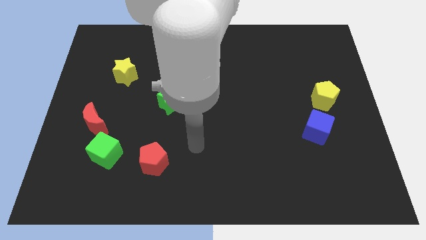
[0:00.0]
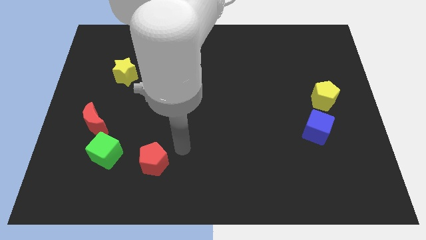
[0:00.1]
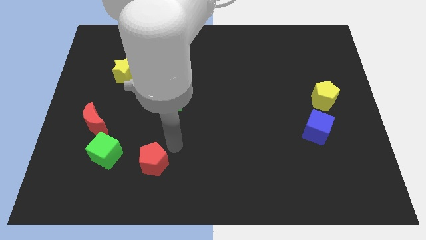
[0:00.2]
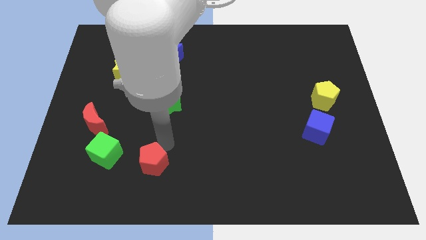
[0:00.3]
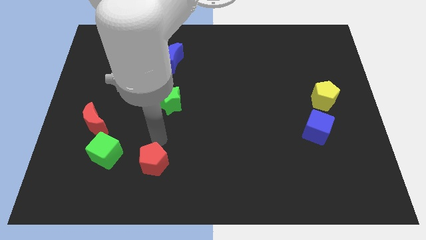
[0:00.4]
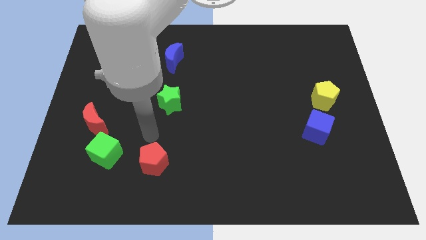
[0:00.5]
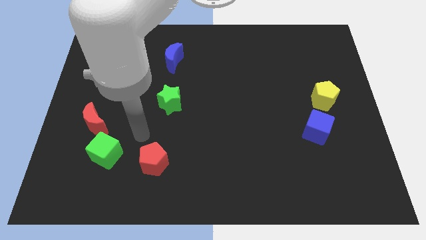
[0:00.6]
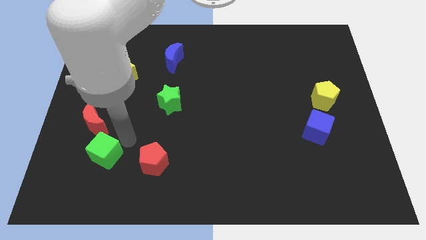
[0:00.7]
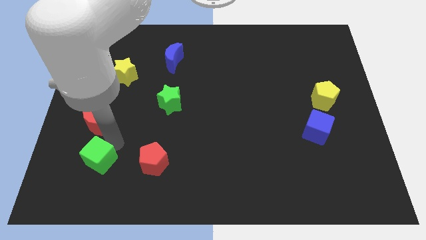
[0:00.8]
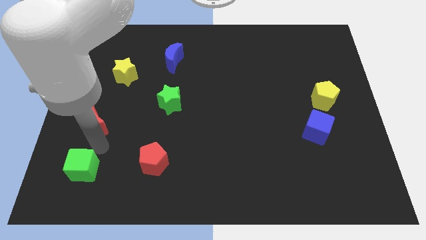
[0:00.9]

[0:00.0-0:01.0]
move the red moon away from the green cube

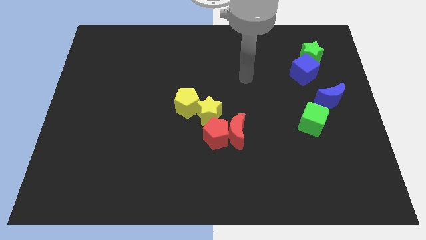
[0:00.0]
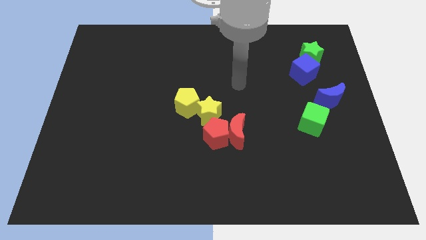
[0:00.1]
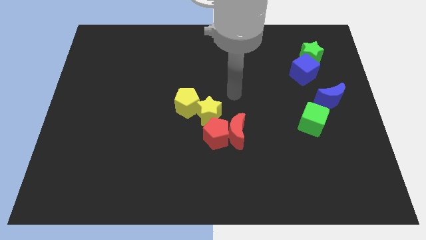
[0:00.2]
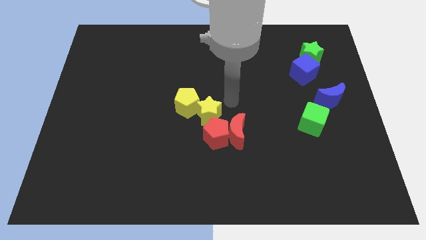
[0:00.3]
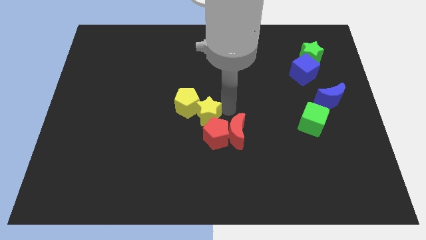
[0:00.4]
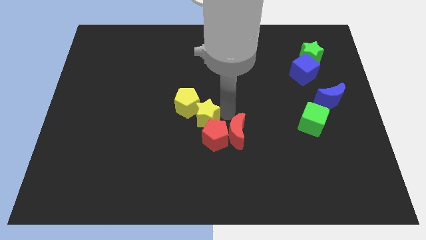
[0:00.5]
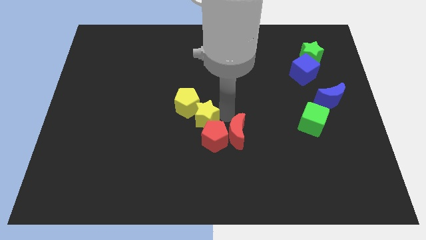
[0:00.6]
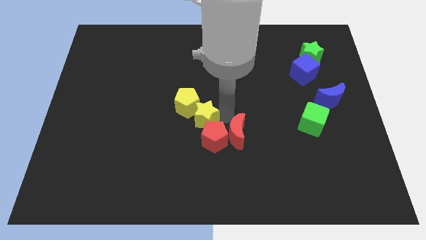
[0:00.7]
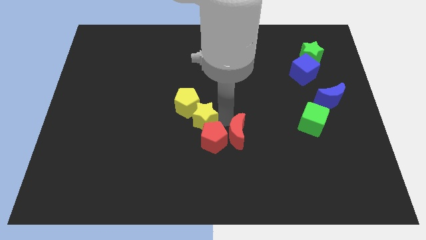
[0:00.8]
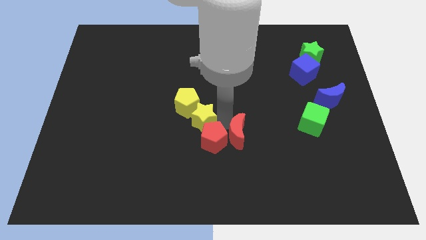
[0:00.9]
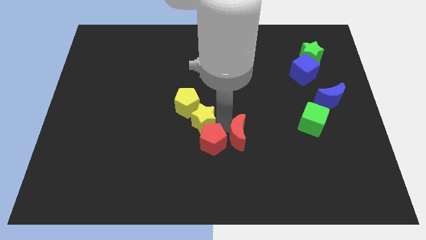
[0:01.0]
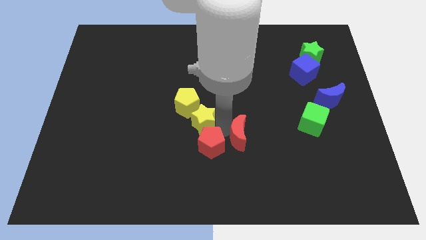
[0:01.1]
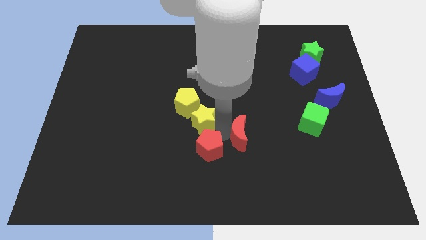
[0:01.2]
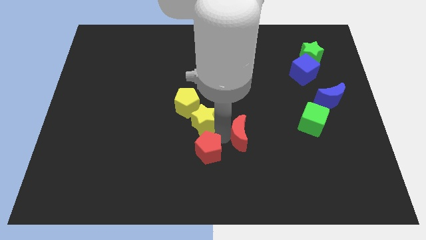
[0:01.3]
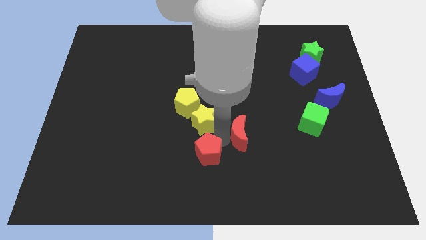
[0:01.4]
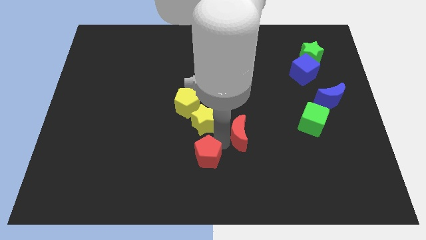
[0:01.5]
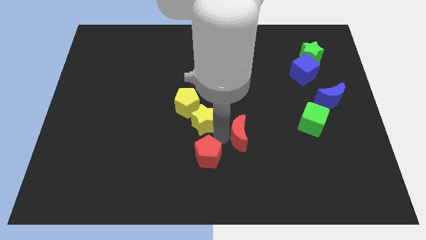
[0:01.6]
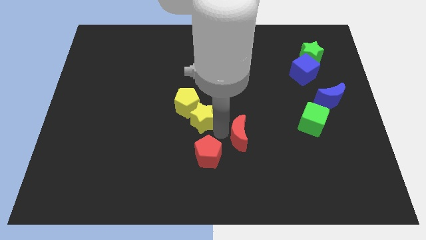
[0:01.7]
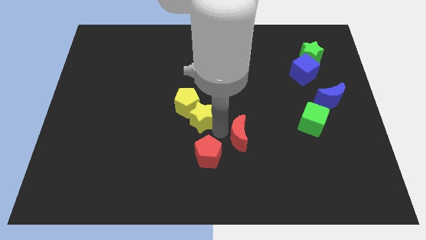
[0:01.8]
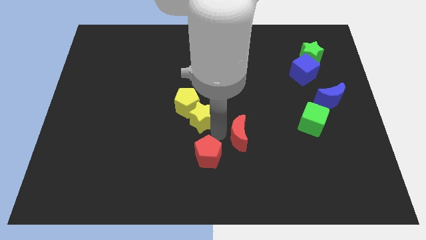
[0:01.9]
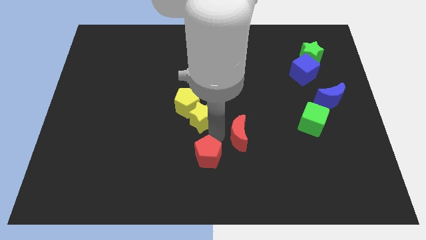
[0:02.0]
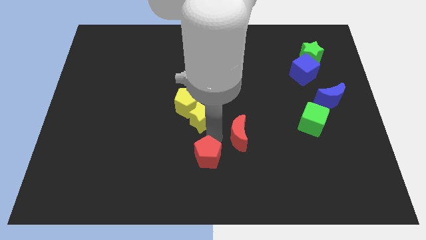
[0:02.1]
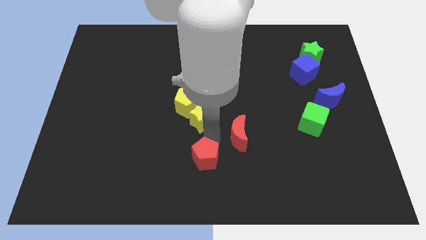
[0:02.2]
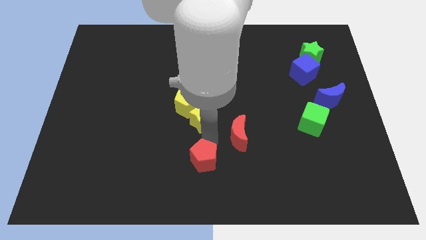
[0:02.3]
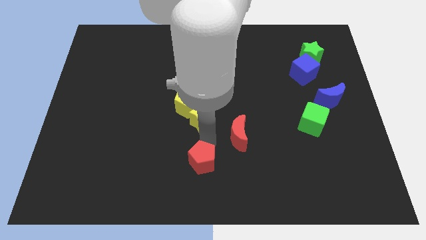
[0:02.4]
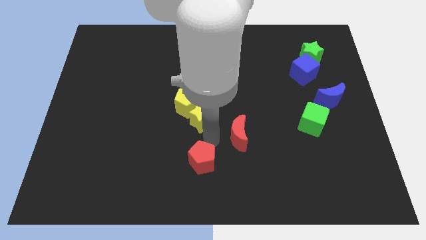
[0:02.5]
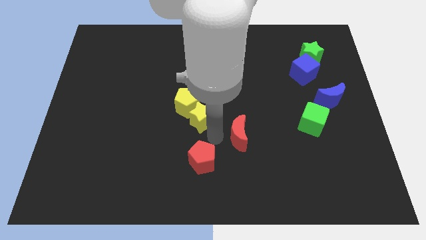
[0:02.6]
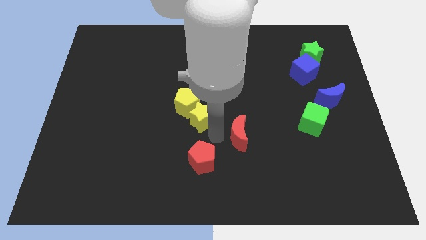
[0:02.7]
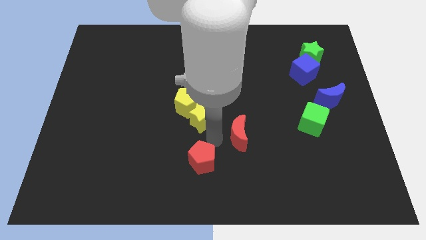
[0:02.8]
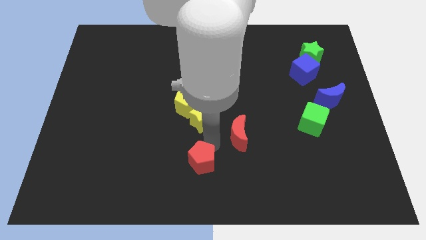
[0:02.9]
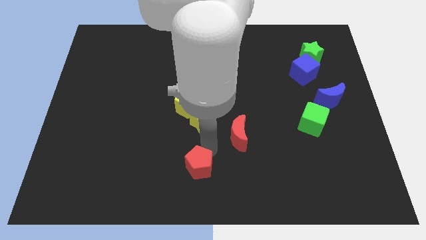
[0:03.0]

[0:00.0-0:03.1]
separate the red pentagon from the red moon and yellow star

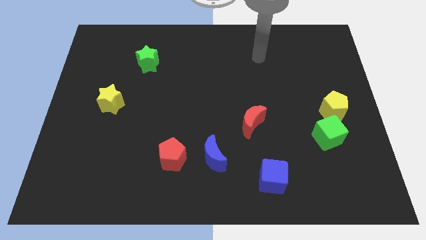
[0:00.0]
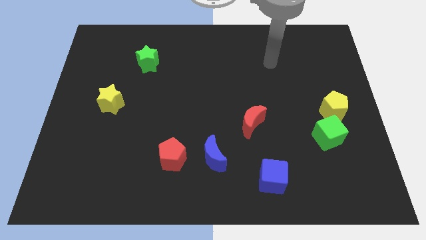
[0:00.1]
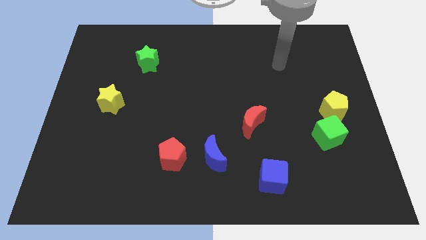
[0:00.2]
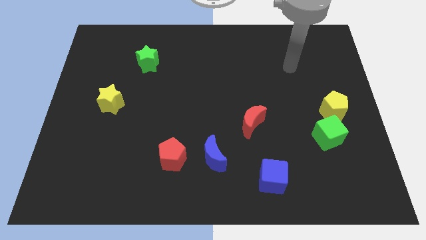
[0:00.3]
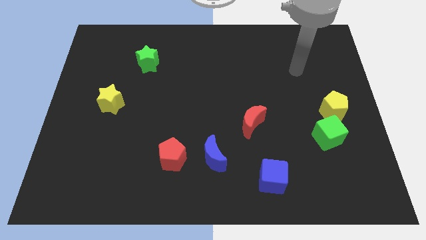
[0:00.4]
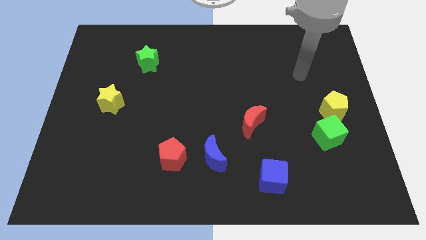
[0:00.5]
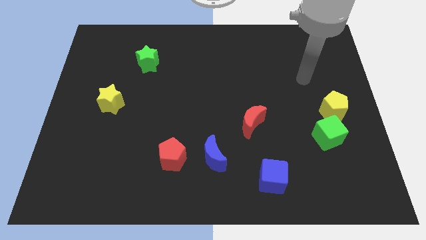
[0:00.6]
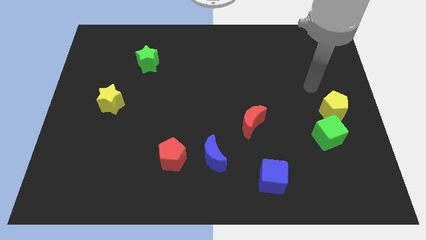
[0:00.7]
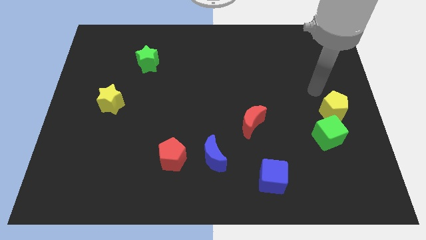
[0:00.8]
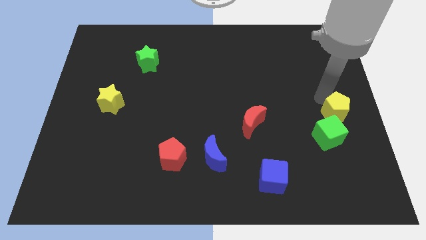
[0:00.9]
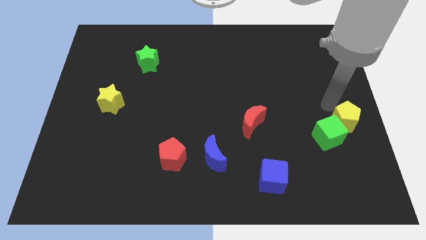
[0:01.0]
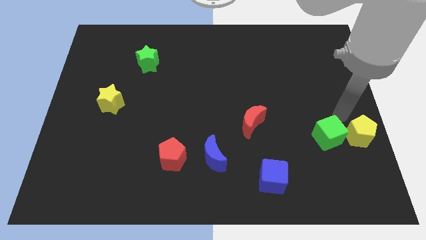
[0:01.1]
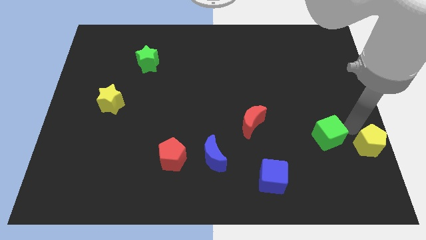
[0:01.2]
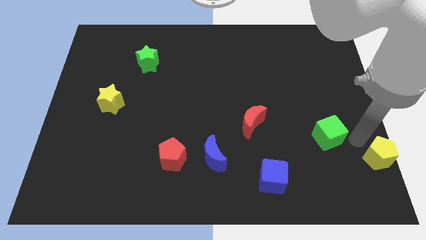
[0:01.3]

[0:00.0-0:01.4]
move the green cube away from the yellow pentagon

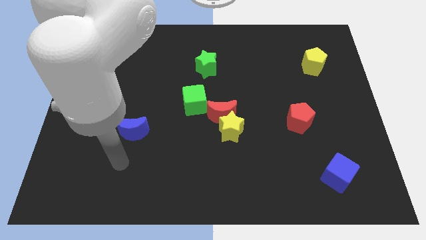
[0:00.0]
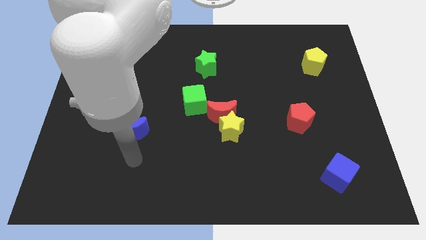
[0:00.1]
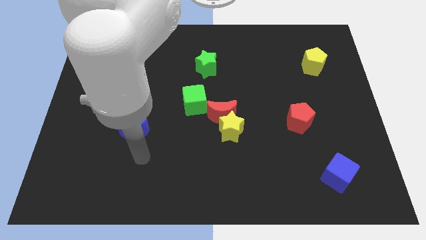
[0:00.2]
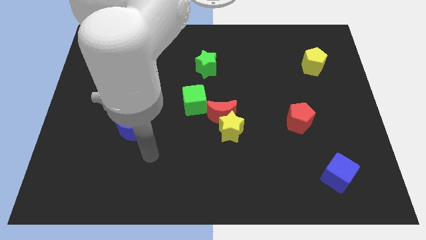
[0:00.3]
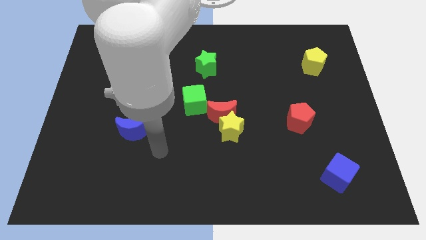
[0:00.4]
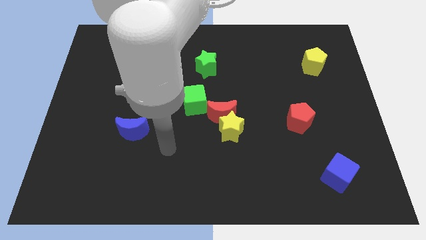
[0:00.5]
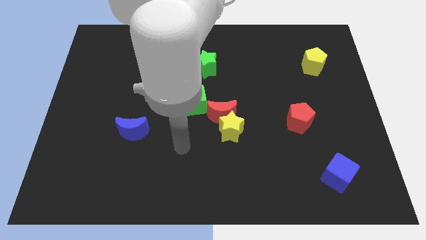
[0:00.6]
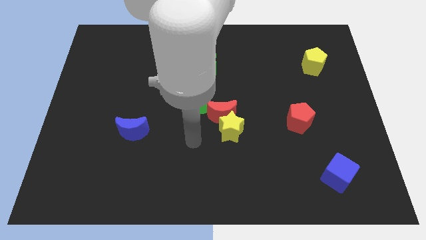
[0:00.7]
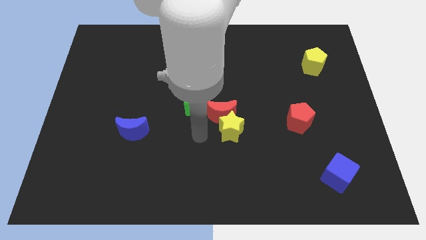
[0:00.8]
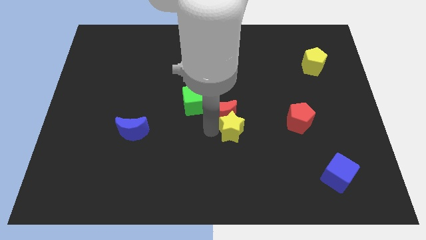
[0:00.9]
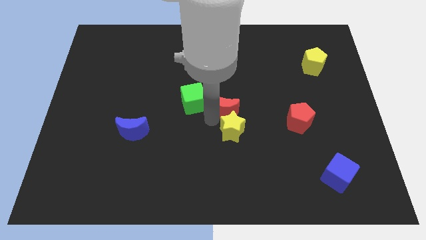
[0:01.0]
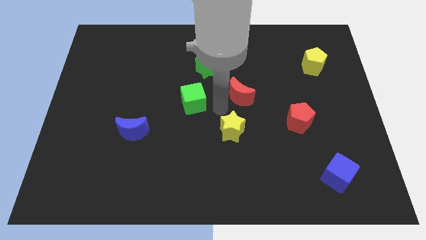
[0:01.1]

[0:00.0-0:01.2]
move the yellow star away from the red moon

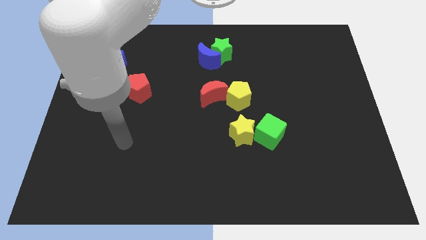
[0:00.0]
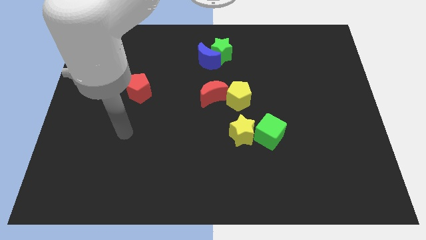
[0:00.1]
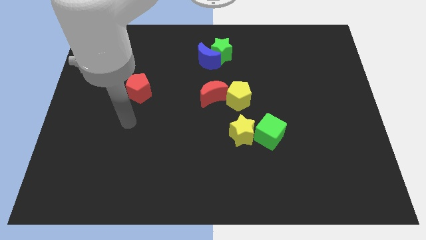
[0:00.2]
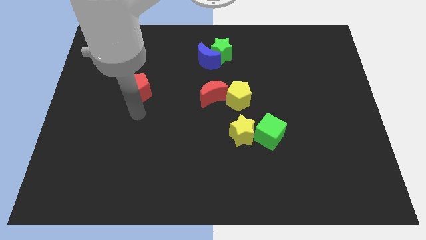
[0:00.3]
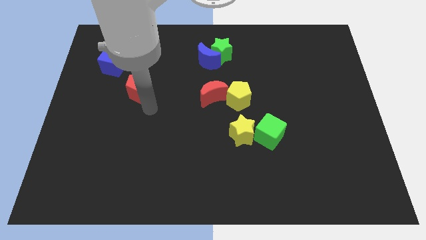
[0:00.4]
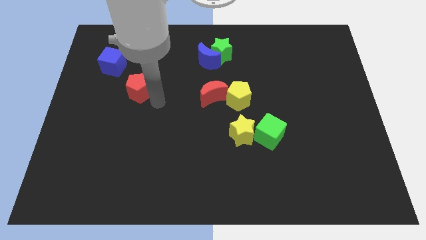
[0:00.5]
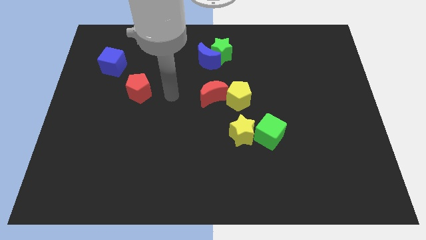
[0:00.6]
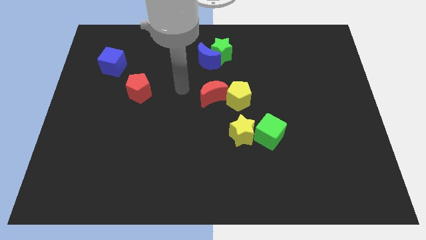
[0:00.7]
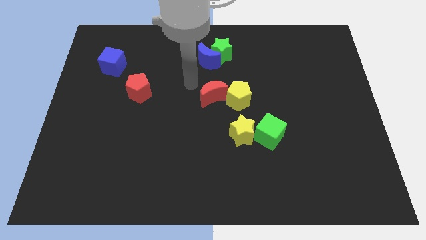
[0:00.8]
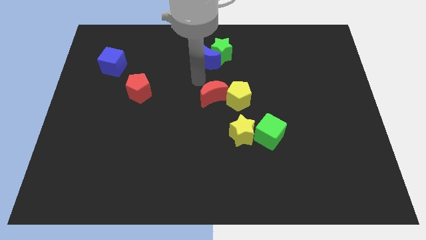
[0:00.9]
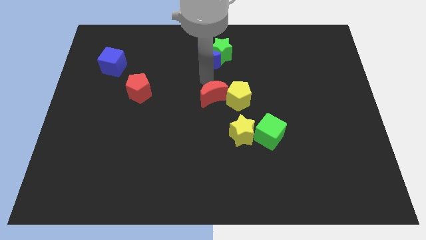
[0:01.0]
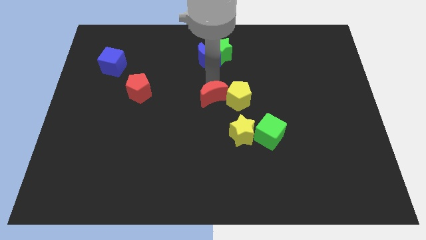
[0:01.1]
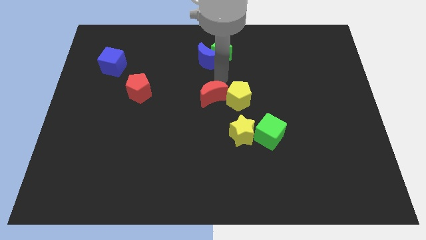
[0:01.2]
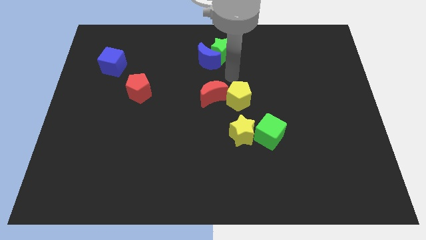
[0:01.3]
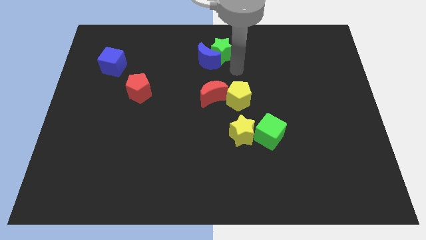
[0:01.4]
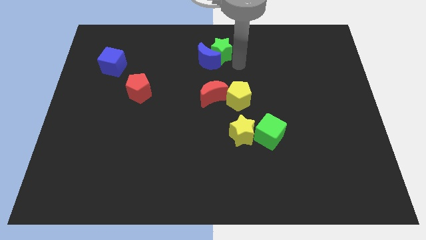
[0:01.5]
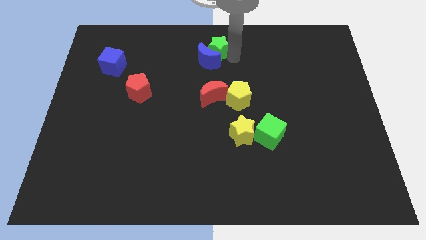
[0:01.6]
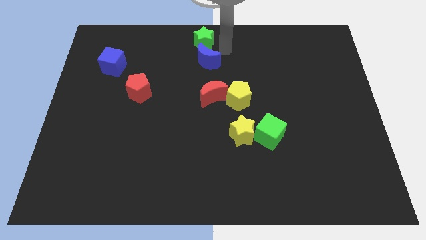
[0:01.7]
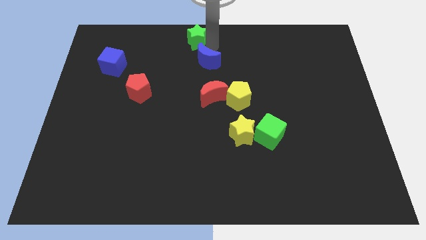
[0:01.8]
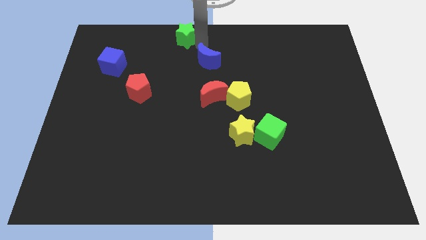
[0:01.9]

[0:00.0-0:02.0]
move the blue moon away from the green star

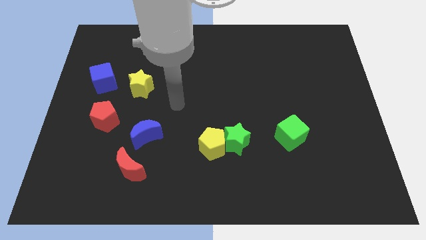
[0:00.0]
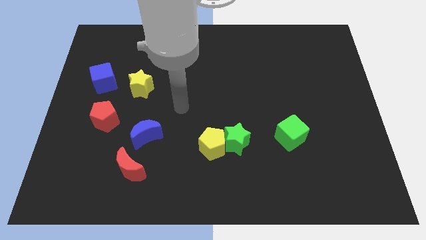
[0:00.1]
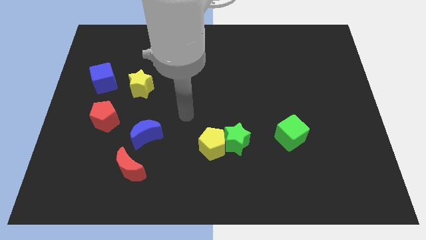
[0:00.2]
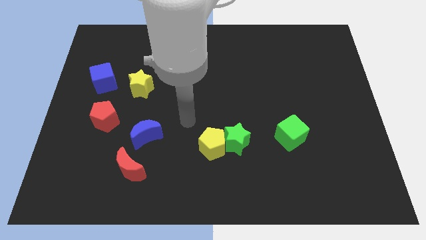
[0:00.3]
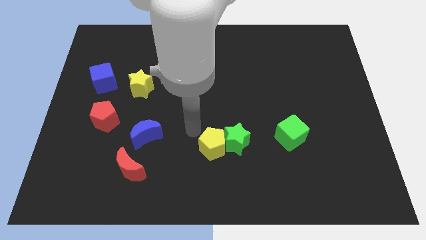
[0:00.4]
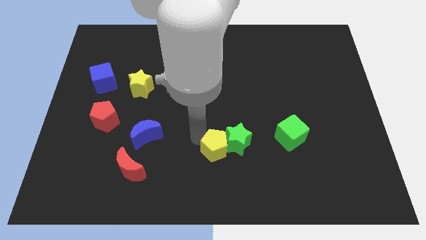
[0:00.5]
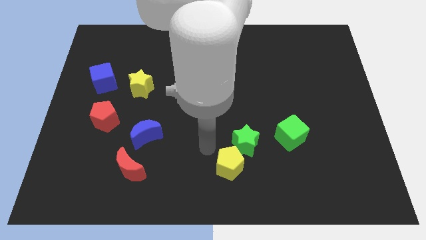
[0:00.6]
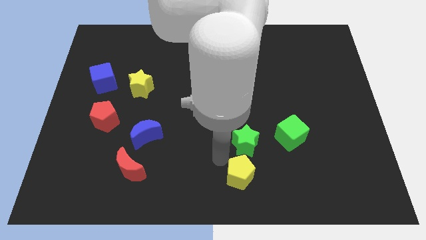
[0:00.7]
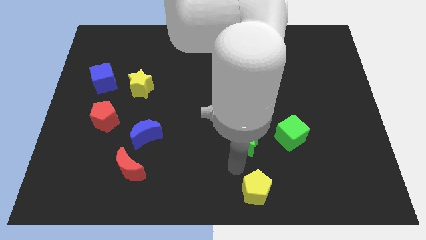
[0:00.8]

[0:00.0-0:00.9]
move the green star away from the yellow pentagon
